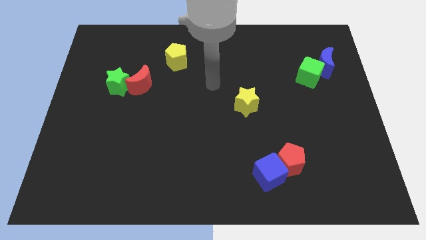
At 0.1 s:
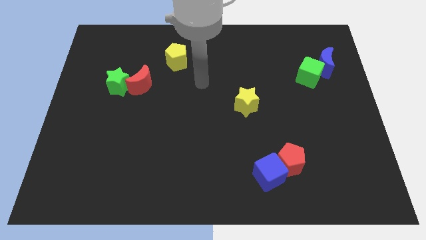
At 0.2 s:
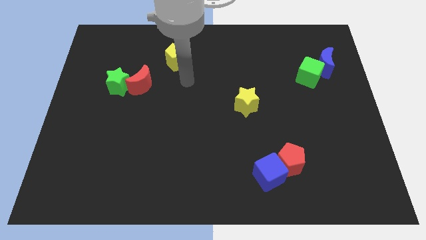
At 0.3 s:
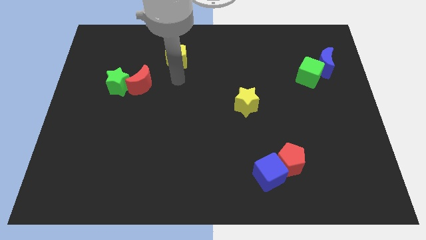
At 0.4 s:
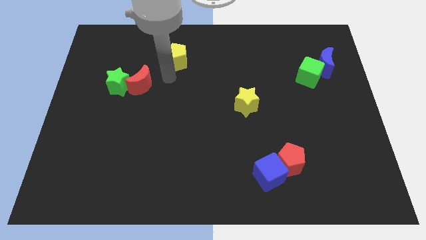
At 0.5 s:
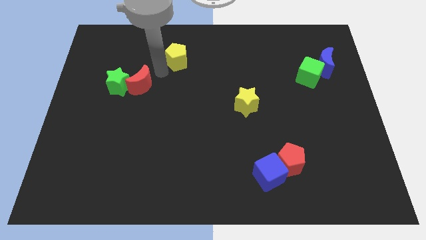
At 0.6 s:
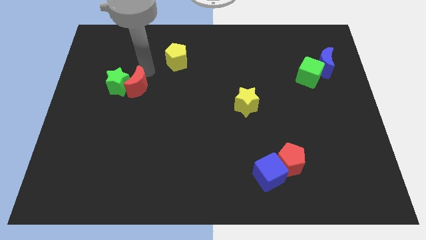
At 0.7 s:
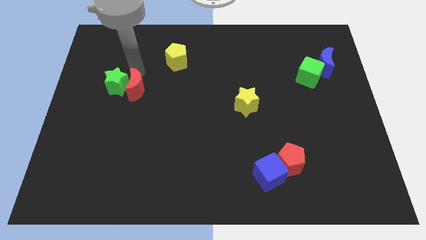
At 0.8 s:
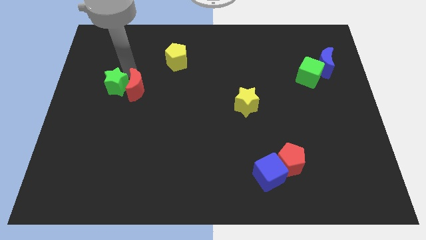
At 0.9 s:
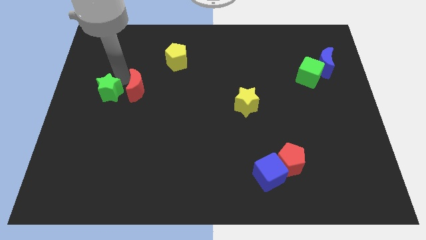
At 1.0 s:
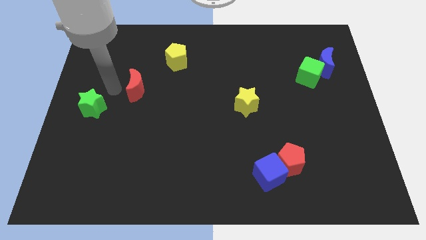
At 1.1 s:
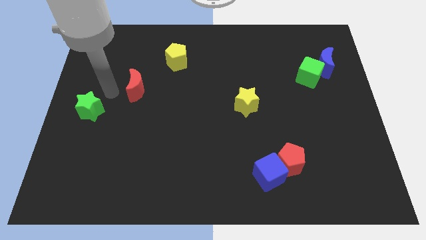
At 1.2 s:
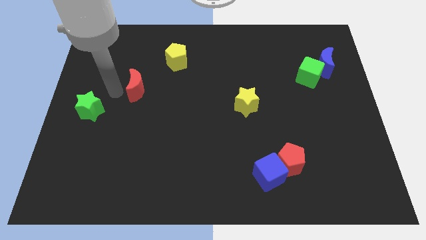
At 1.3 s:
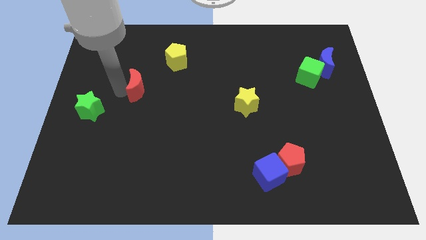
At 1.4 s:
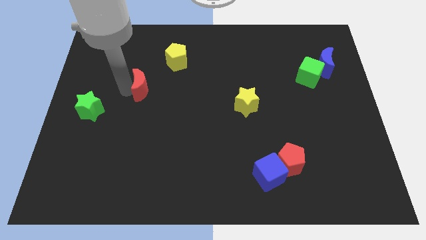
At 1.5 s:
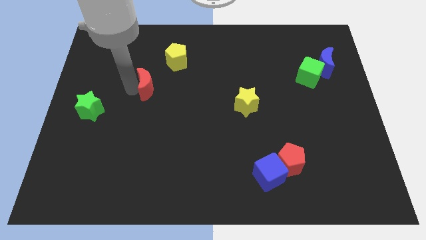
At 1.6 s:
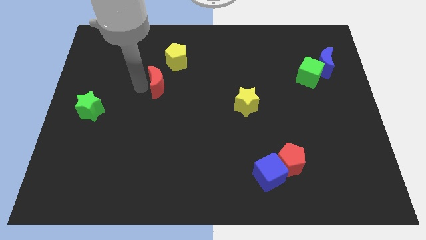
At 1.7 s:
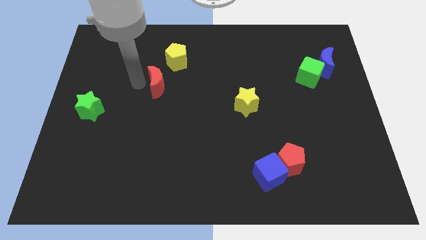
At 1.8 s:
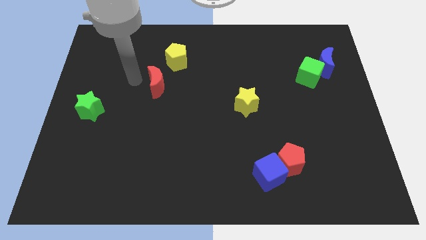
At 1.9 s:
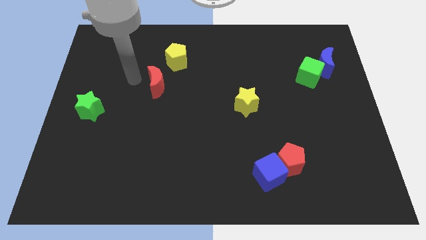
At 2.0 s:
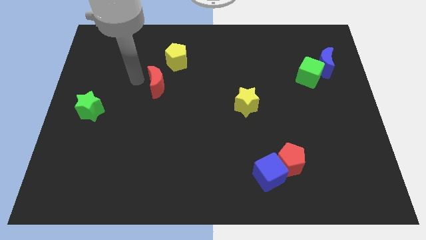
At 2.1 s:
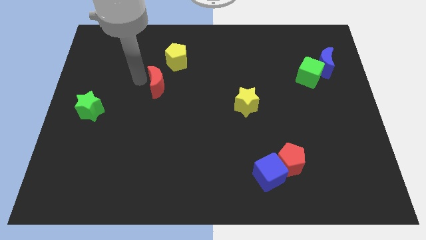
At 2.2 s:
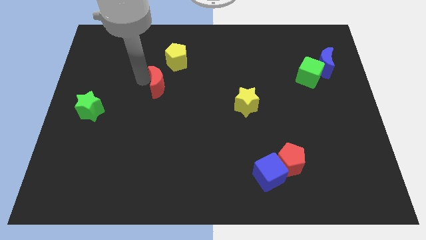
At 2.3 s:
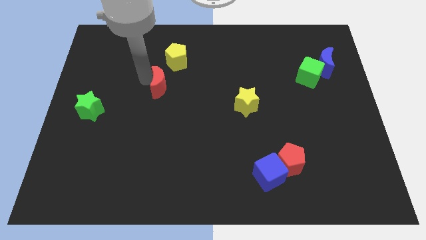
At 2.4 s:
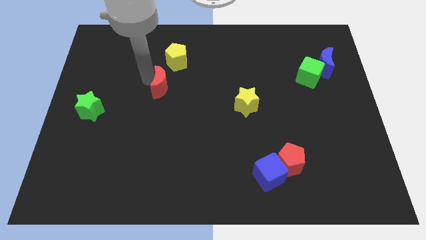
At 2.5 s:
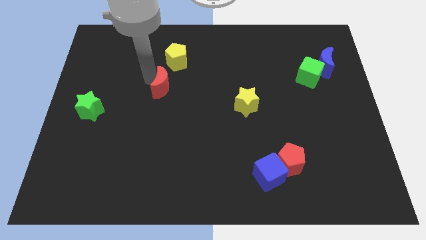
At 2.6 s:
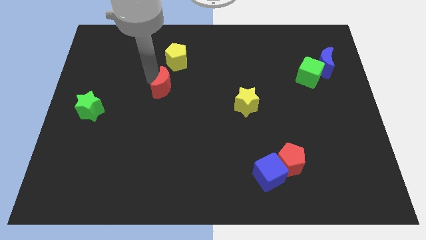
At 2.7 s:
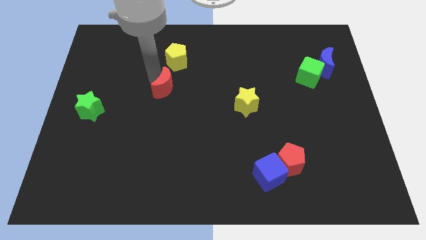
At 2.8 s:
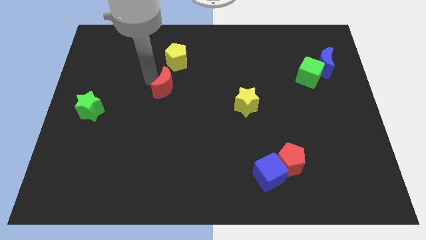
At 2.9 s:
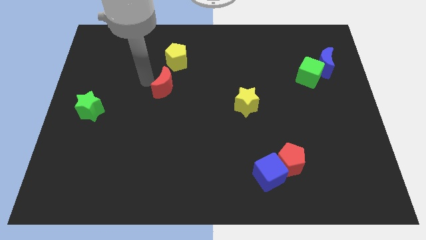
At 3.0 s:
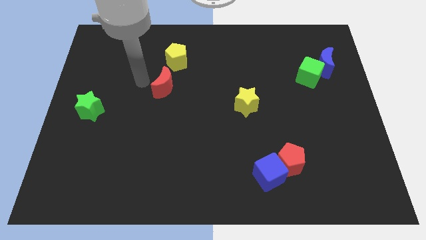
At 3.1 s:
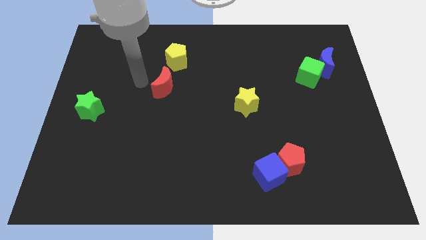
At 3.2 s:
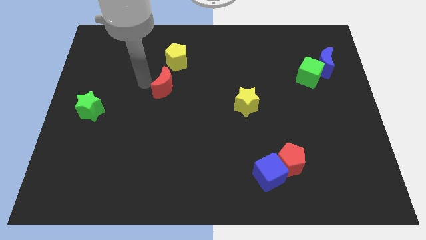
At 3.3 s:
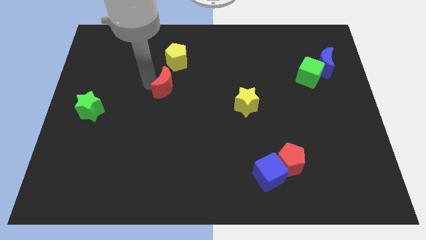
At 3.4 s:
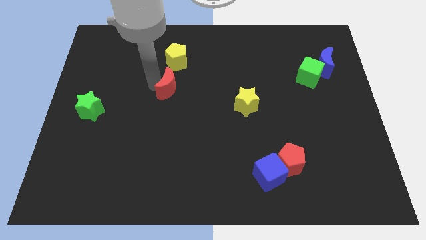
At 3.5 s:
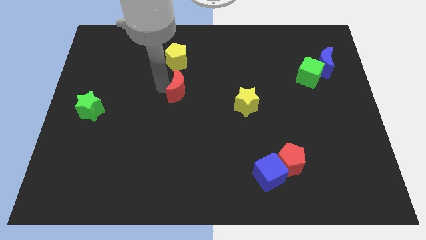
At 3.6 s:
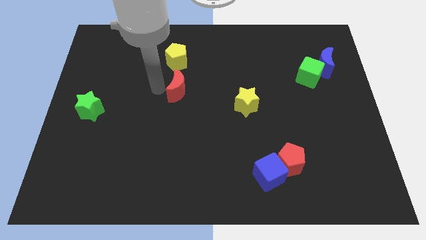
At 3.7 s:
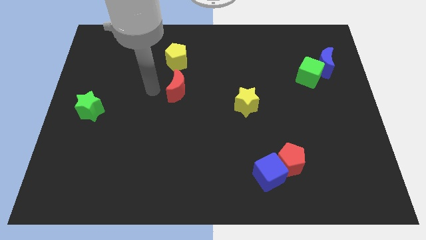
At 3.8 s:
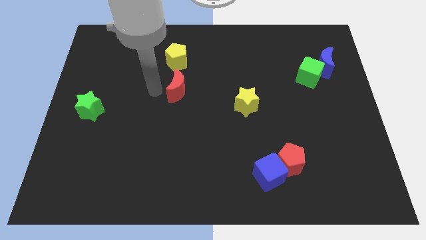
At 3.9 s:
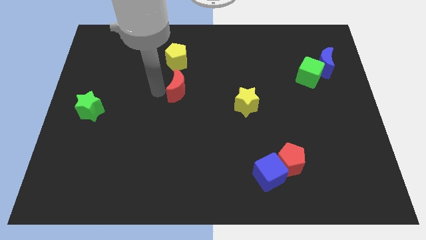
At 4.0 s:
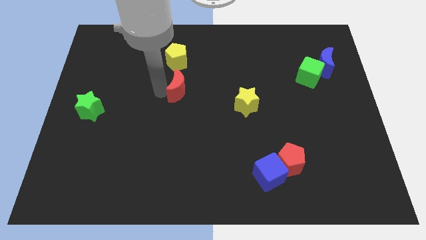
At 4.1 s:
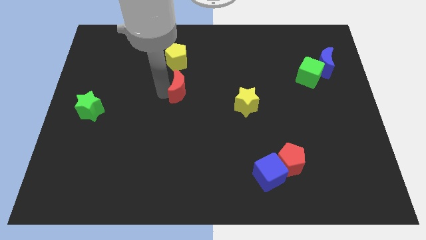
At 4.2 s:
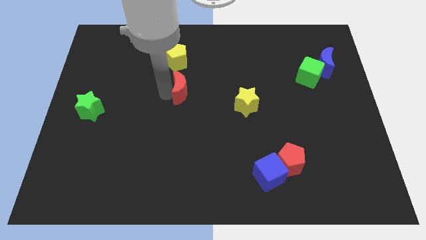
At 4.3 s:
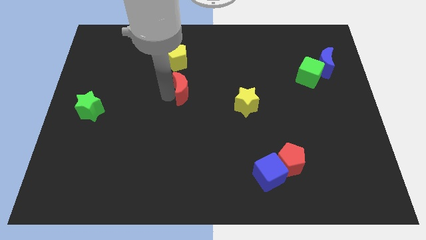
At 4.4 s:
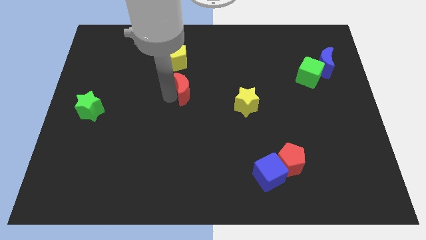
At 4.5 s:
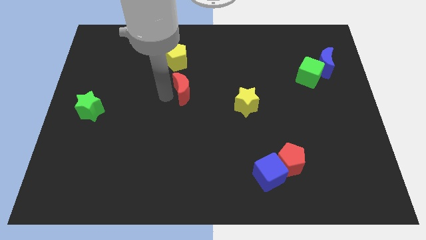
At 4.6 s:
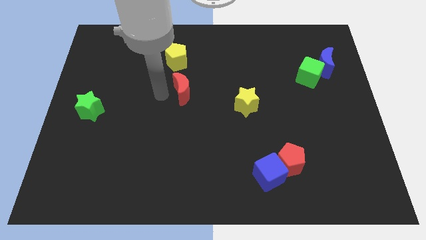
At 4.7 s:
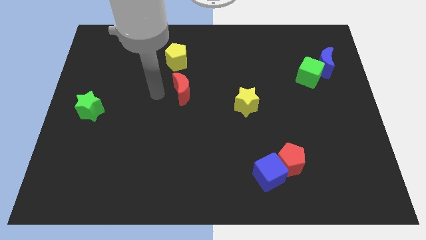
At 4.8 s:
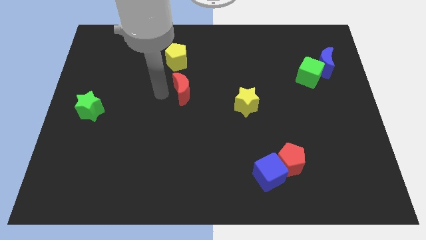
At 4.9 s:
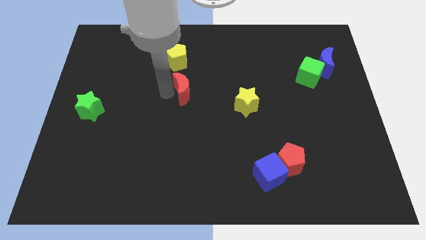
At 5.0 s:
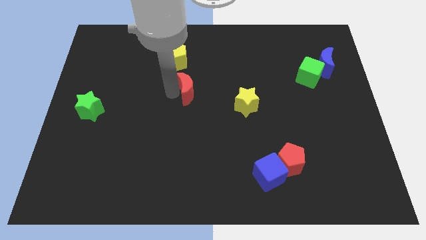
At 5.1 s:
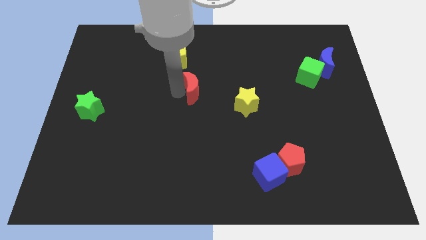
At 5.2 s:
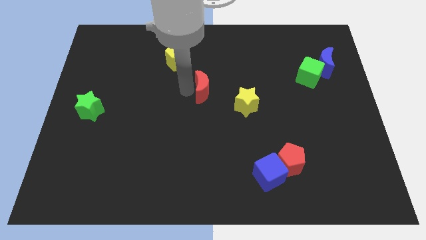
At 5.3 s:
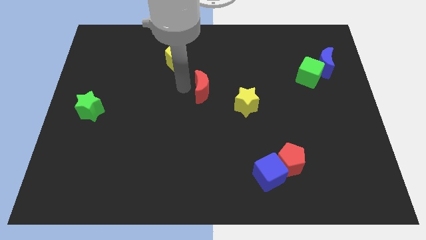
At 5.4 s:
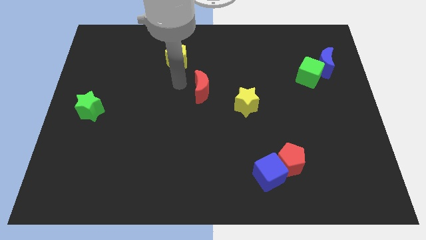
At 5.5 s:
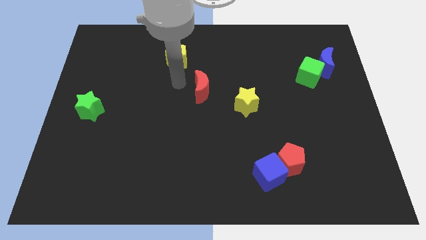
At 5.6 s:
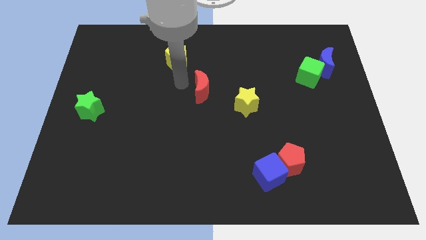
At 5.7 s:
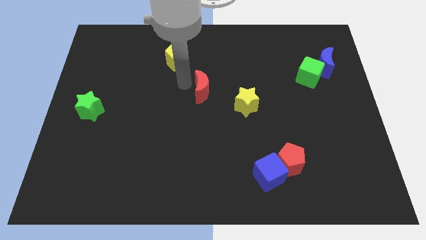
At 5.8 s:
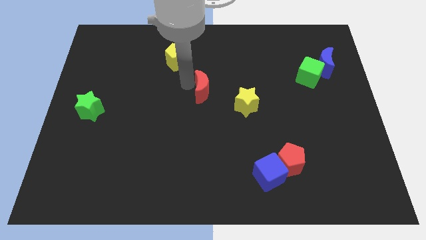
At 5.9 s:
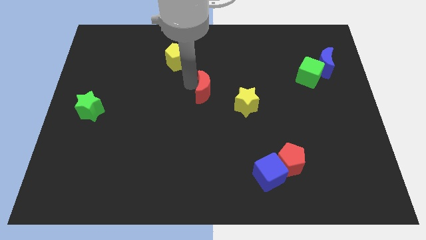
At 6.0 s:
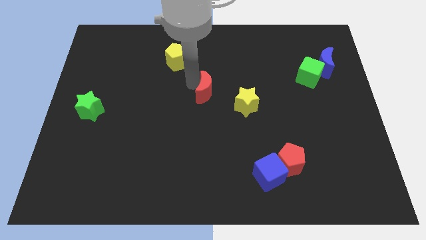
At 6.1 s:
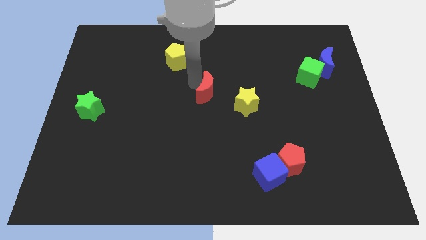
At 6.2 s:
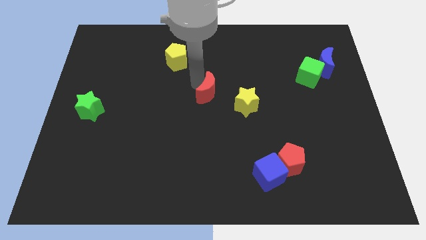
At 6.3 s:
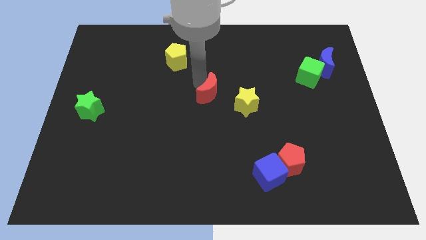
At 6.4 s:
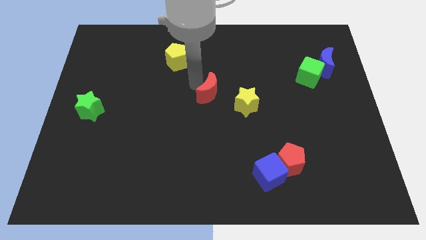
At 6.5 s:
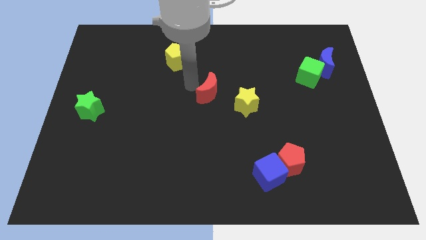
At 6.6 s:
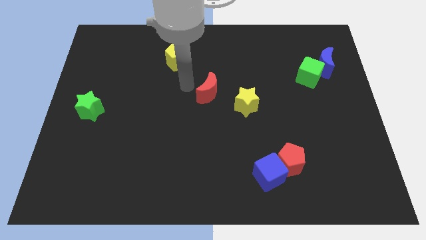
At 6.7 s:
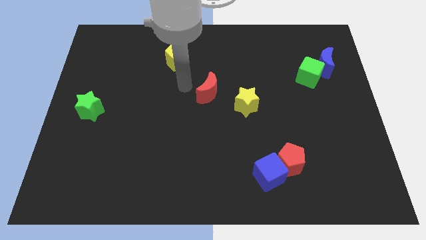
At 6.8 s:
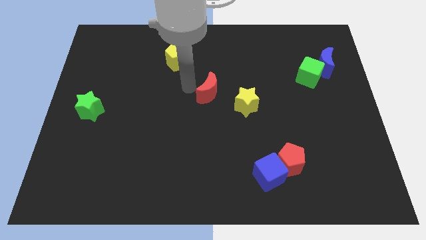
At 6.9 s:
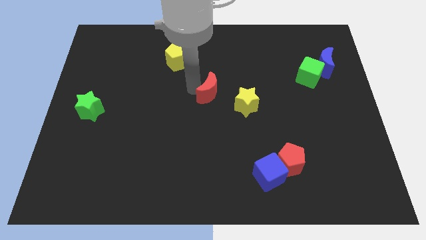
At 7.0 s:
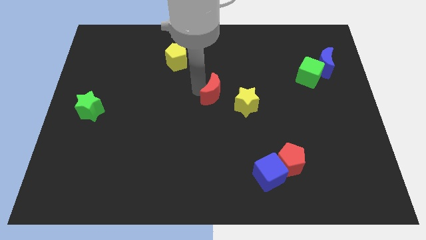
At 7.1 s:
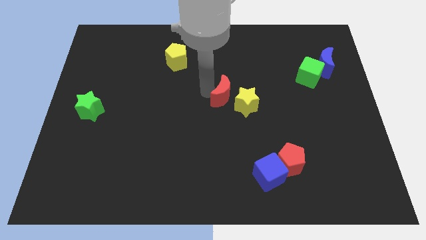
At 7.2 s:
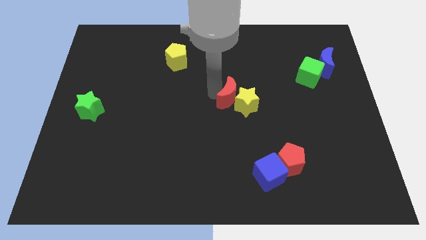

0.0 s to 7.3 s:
move the red moon close to the yellow star
